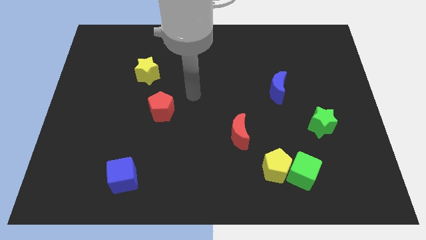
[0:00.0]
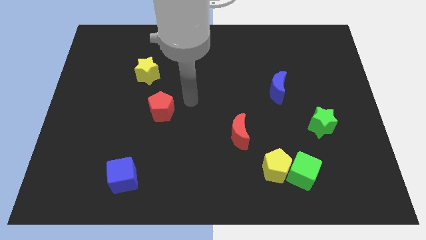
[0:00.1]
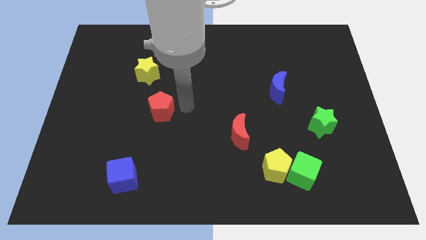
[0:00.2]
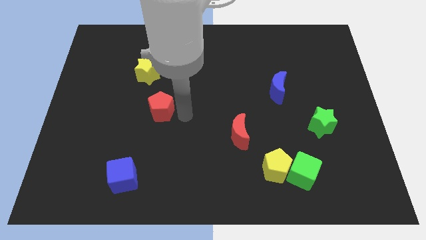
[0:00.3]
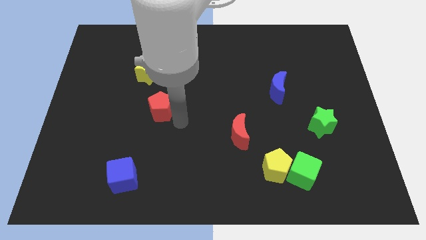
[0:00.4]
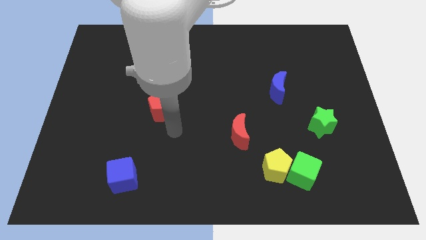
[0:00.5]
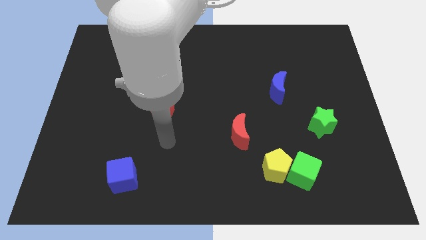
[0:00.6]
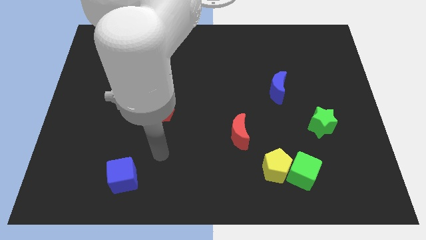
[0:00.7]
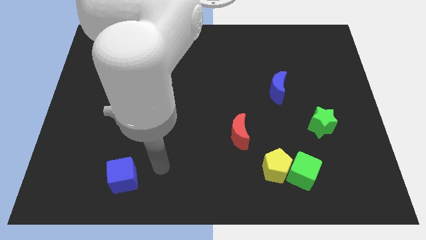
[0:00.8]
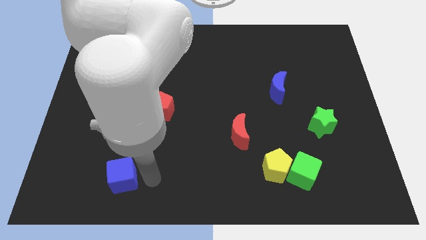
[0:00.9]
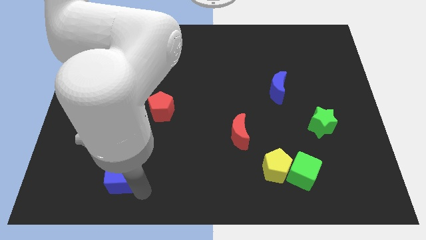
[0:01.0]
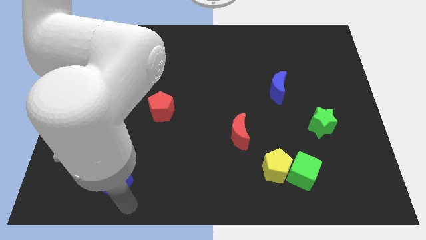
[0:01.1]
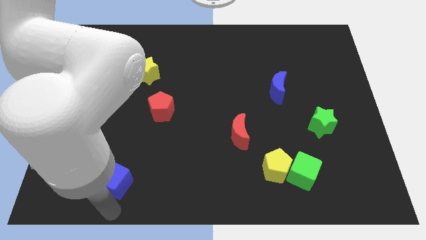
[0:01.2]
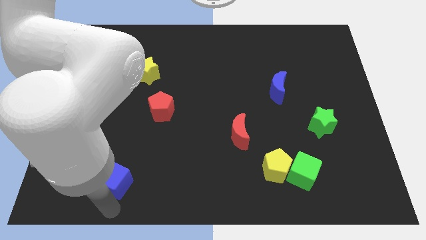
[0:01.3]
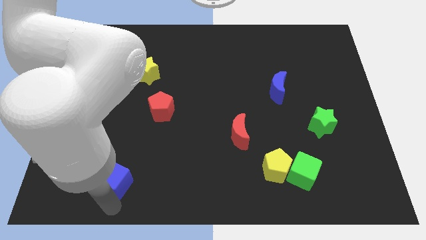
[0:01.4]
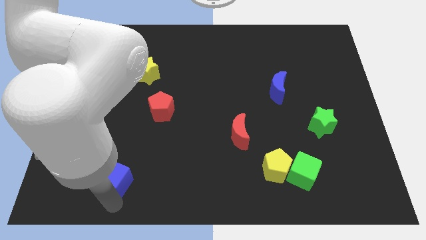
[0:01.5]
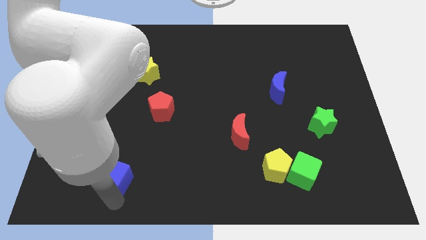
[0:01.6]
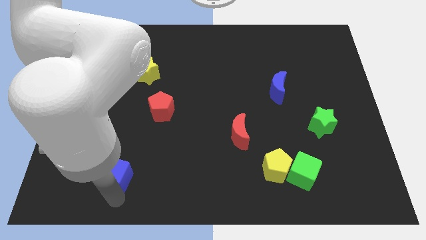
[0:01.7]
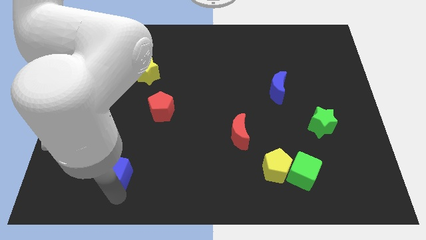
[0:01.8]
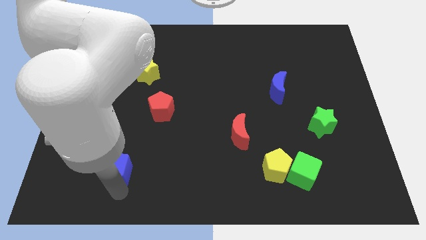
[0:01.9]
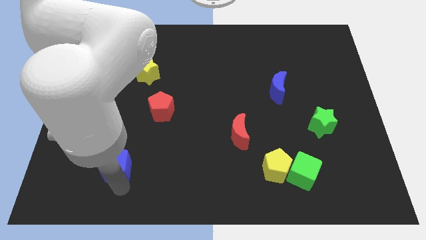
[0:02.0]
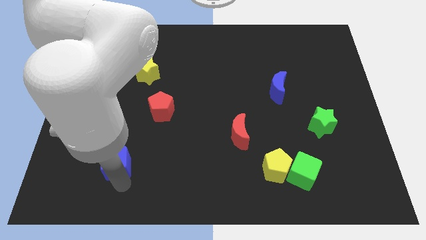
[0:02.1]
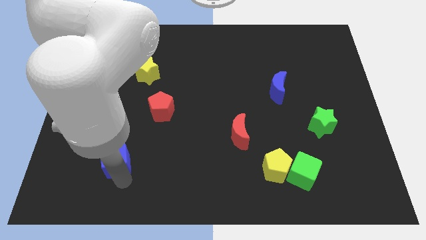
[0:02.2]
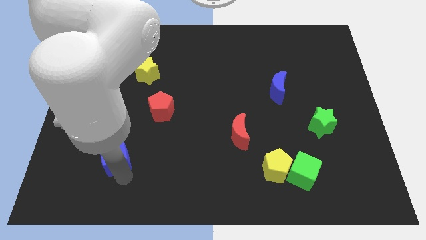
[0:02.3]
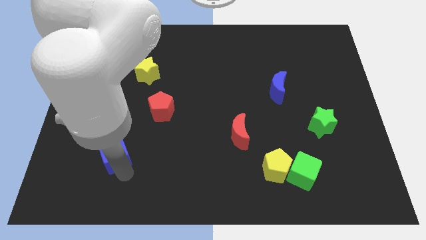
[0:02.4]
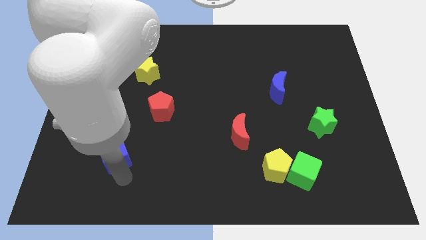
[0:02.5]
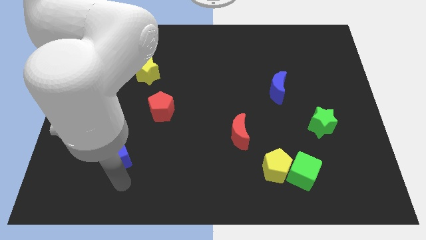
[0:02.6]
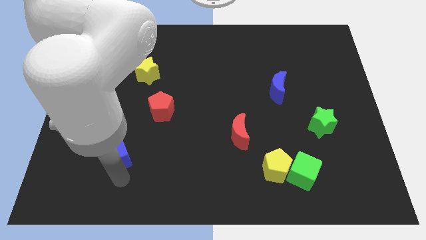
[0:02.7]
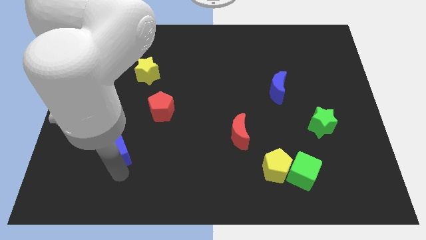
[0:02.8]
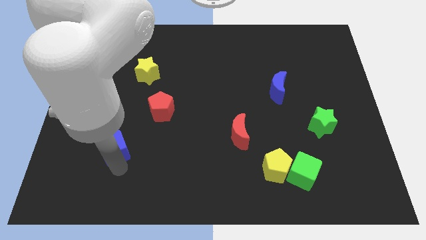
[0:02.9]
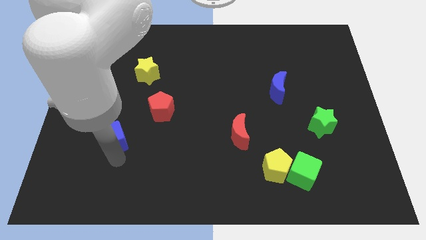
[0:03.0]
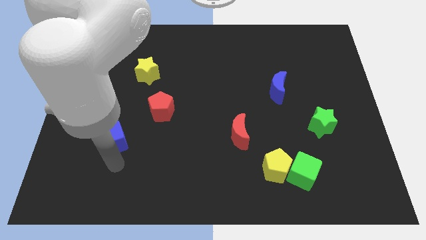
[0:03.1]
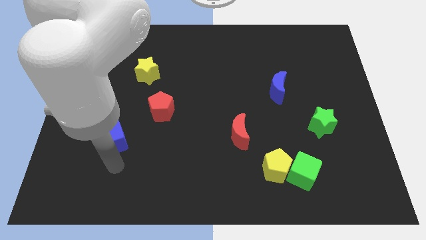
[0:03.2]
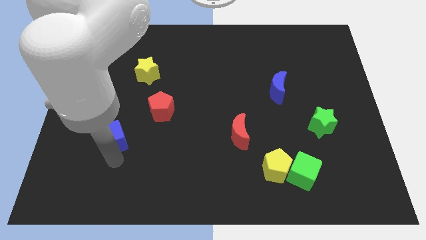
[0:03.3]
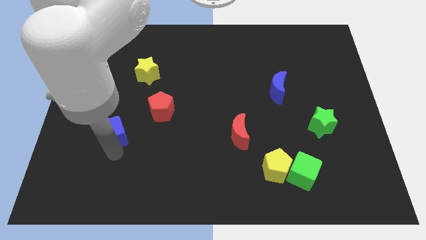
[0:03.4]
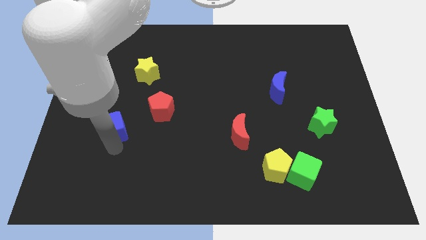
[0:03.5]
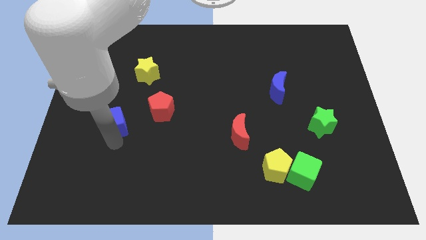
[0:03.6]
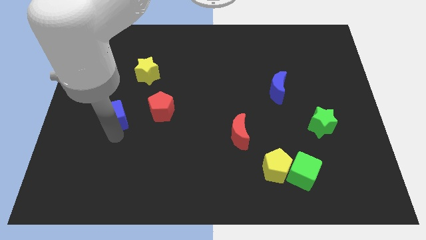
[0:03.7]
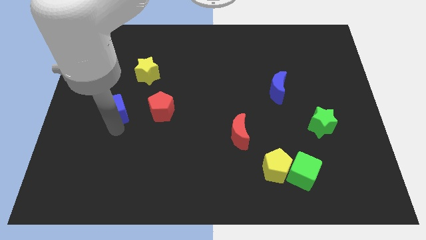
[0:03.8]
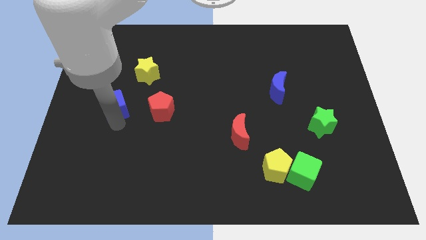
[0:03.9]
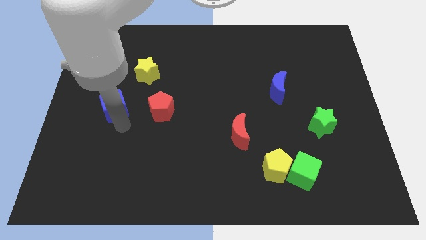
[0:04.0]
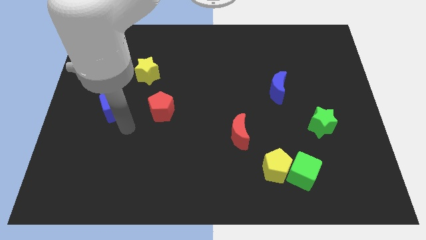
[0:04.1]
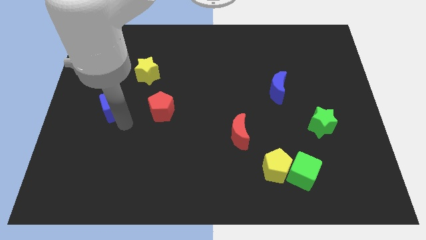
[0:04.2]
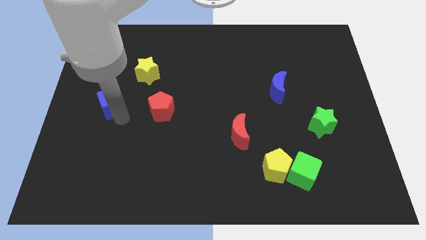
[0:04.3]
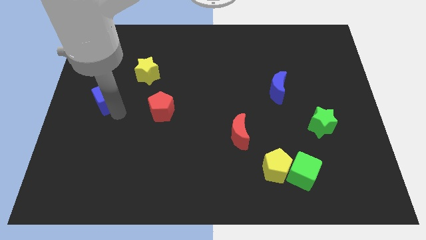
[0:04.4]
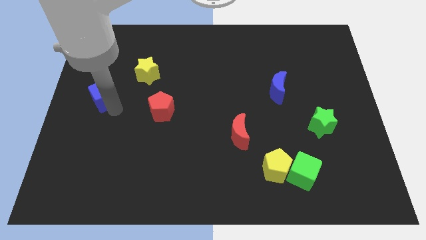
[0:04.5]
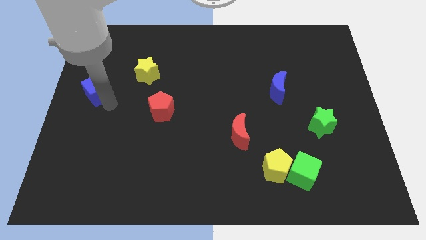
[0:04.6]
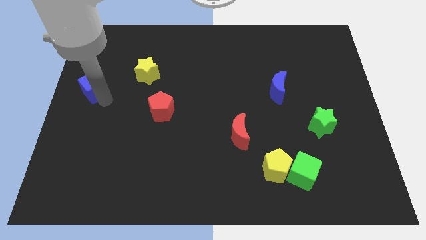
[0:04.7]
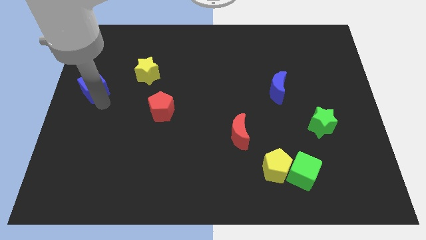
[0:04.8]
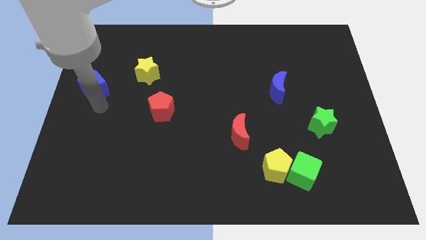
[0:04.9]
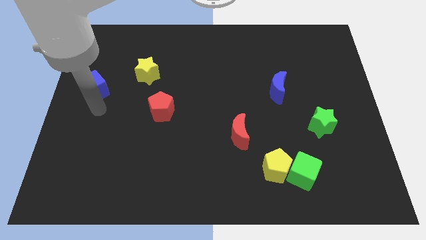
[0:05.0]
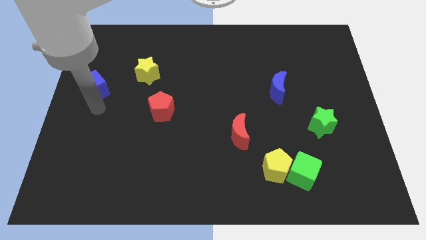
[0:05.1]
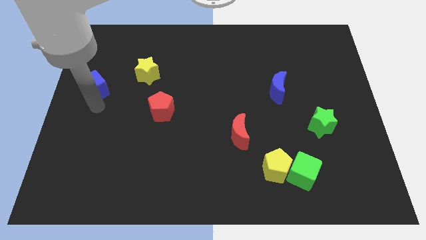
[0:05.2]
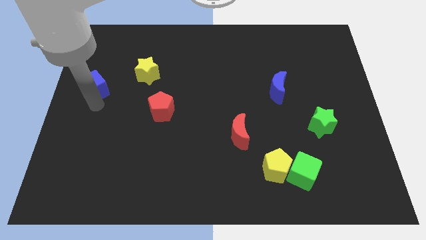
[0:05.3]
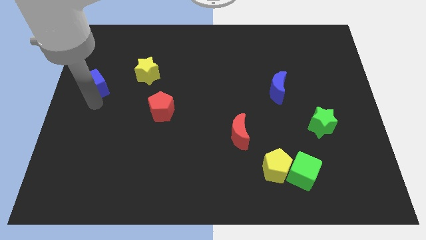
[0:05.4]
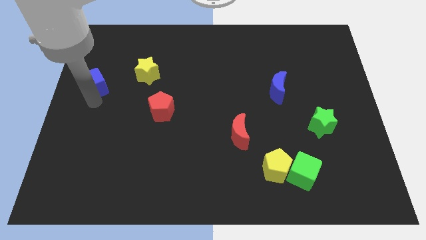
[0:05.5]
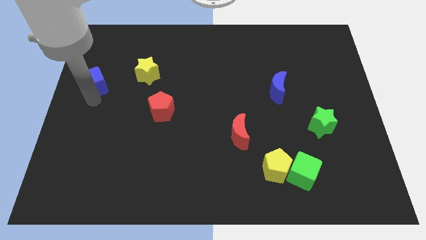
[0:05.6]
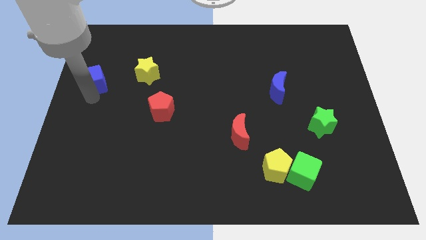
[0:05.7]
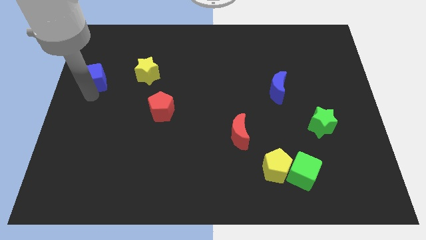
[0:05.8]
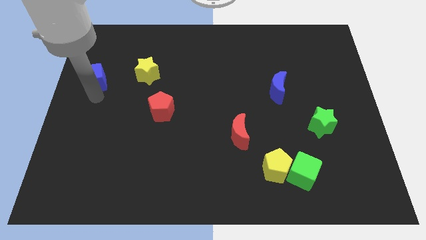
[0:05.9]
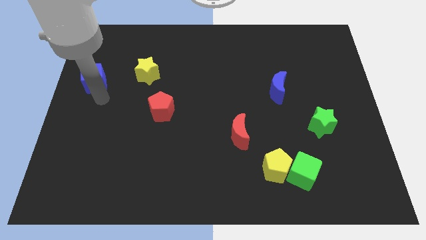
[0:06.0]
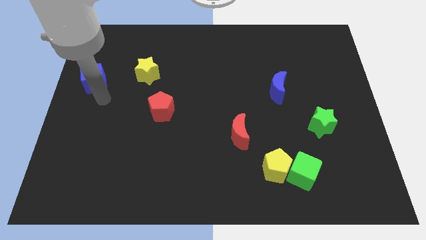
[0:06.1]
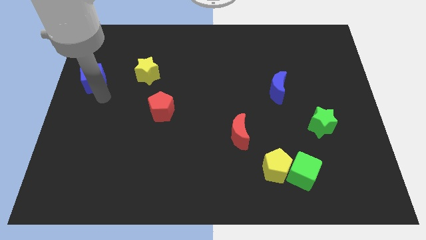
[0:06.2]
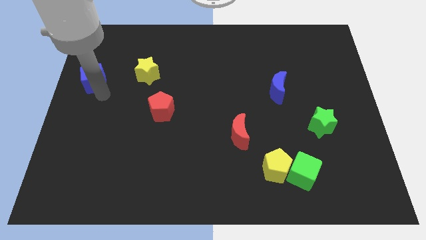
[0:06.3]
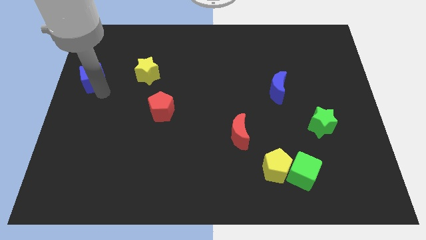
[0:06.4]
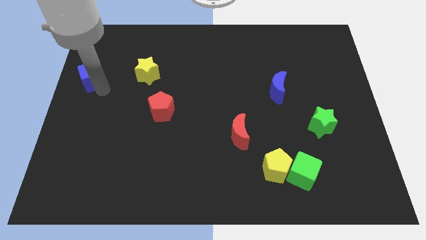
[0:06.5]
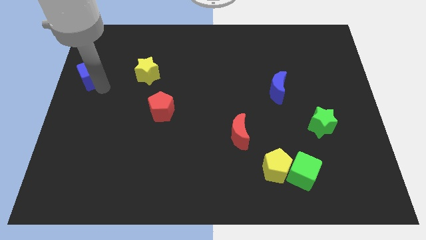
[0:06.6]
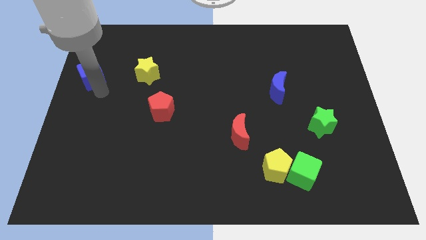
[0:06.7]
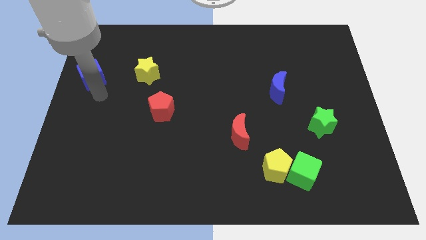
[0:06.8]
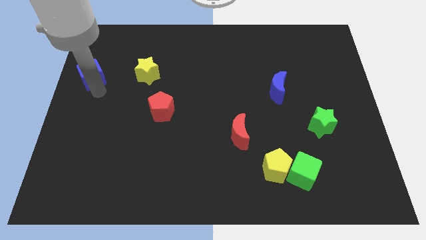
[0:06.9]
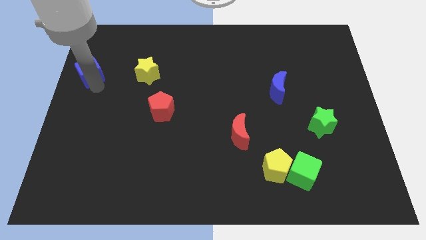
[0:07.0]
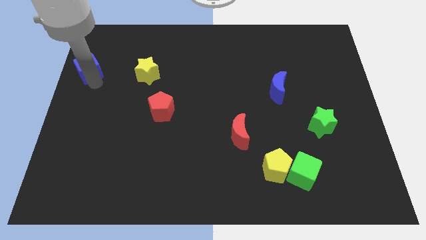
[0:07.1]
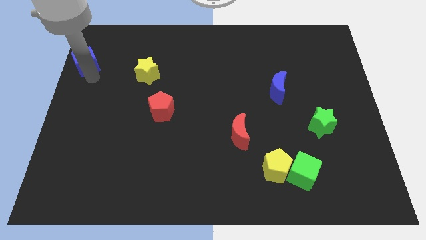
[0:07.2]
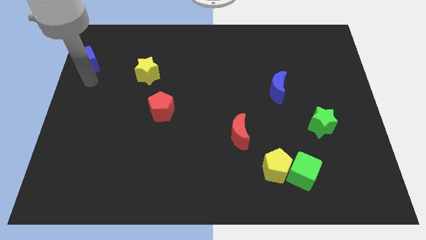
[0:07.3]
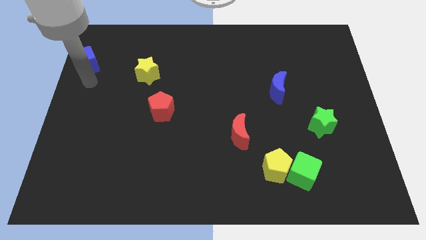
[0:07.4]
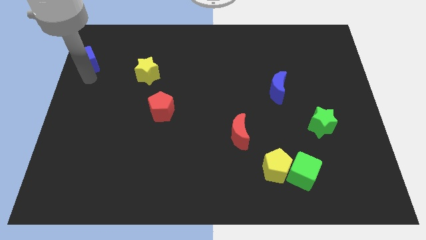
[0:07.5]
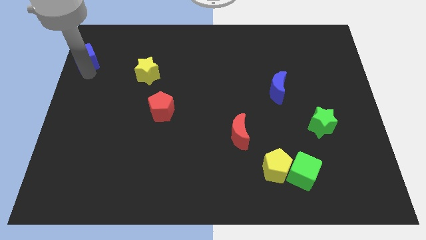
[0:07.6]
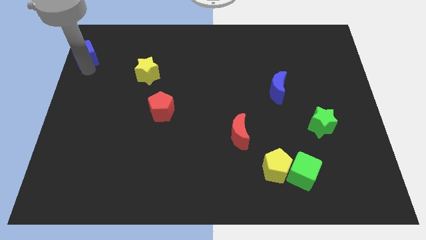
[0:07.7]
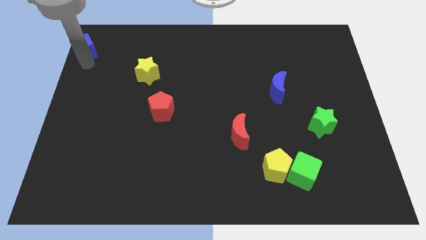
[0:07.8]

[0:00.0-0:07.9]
slide the blue cube to the top left corner
